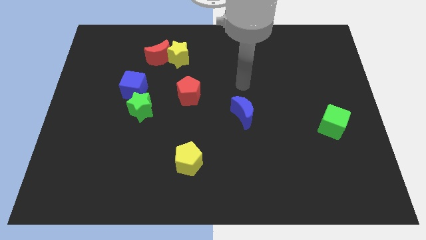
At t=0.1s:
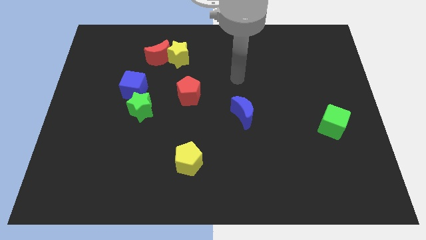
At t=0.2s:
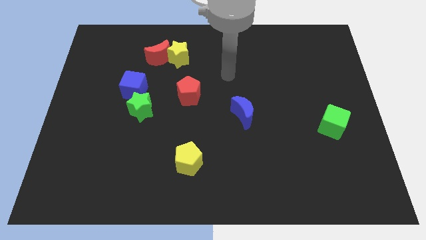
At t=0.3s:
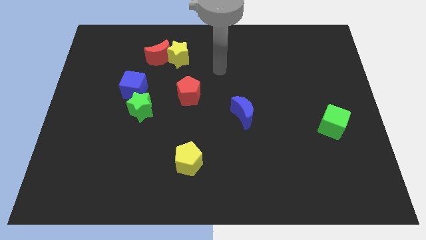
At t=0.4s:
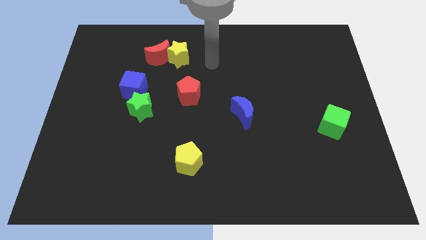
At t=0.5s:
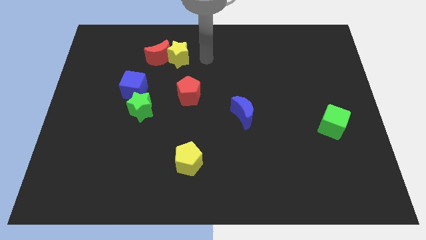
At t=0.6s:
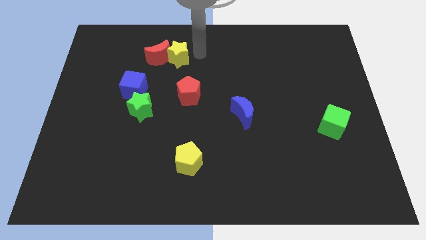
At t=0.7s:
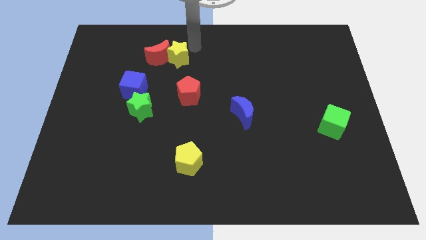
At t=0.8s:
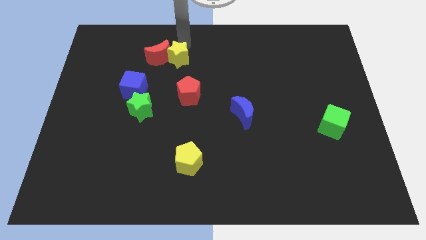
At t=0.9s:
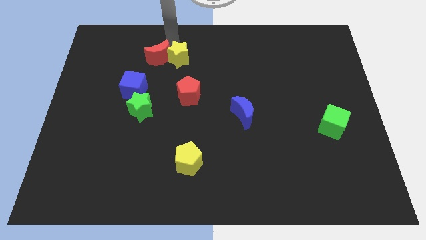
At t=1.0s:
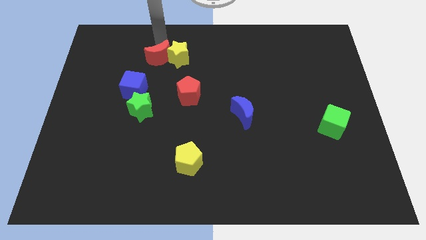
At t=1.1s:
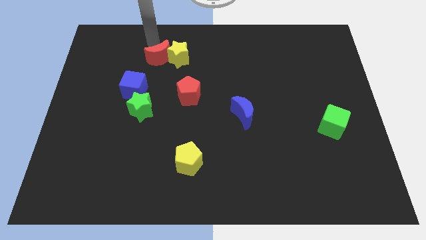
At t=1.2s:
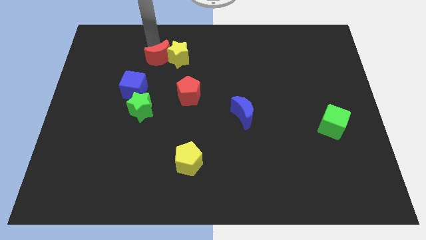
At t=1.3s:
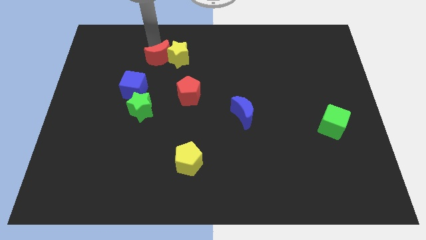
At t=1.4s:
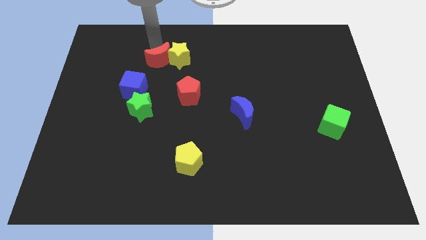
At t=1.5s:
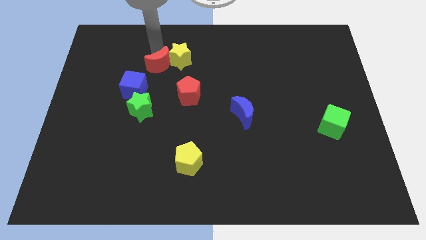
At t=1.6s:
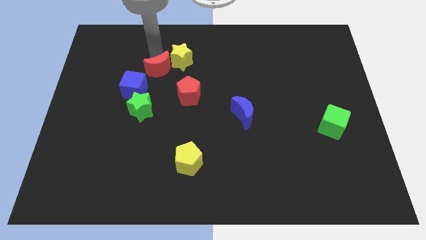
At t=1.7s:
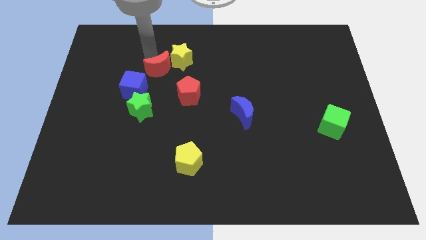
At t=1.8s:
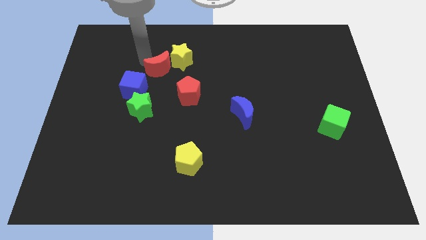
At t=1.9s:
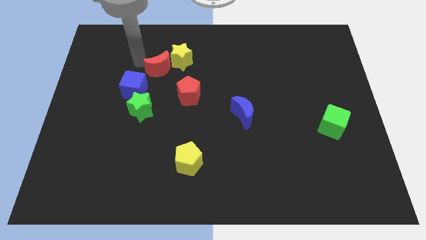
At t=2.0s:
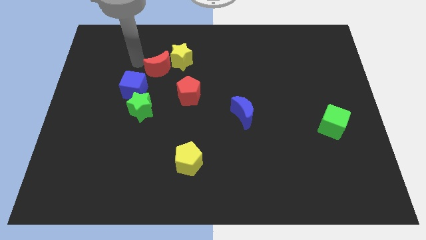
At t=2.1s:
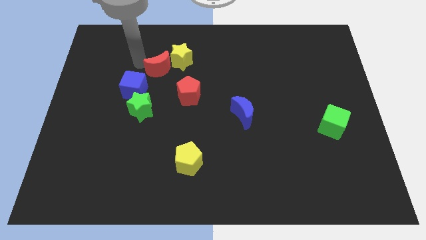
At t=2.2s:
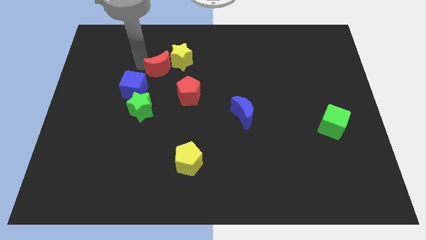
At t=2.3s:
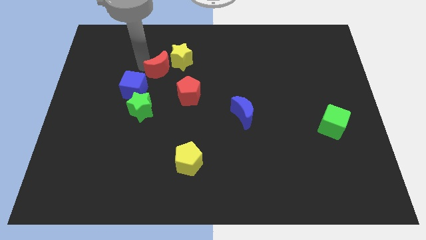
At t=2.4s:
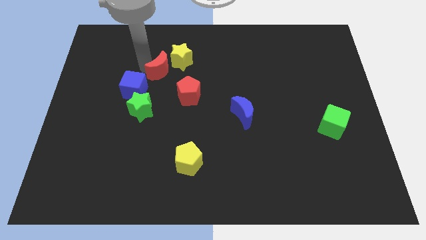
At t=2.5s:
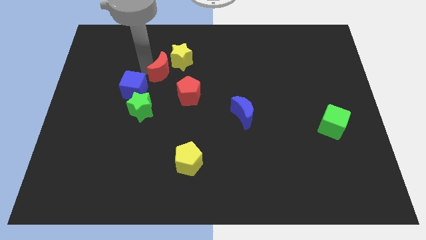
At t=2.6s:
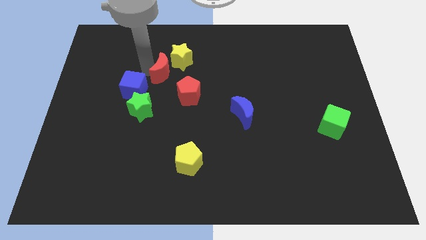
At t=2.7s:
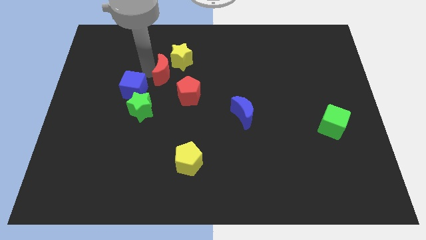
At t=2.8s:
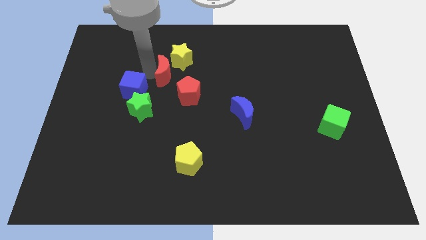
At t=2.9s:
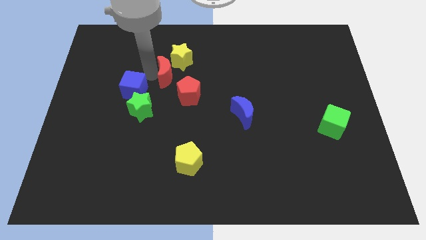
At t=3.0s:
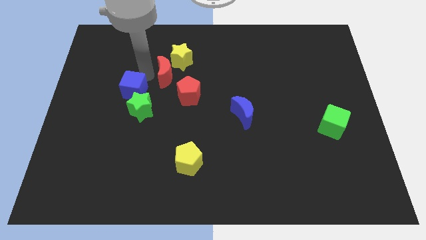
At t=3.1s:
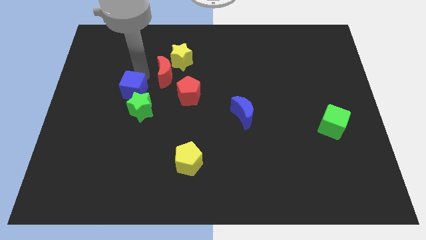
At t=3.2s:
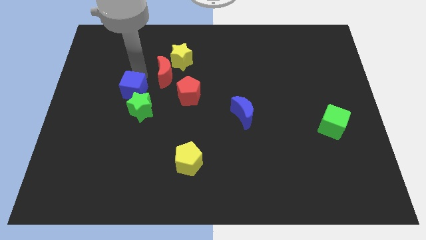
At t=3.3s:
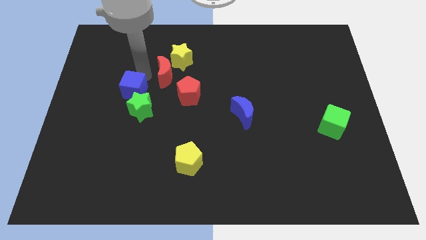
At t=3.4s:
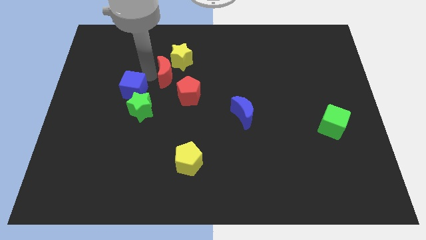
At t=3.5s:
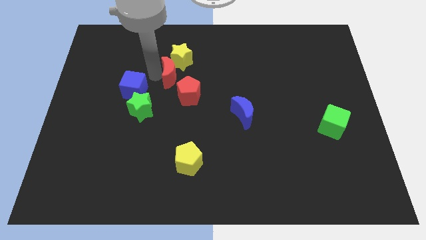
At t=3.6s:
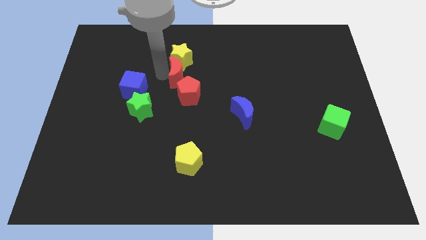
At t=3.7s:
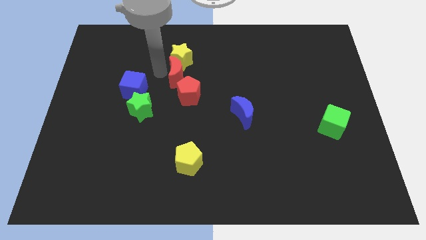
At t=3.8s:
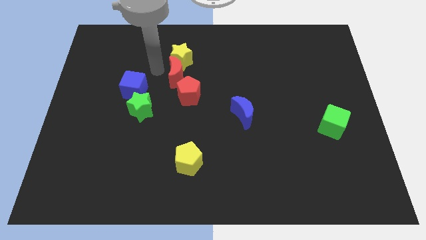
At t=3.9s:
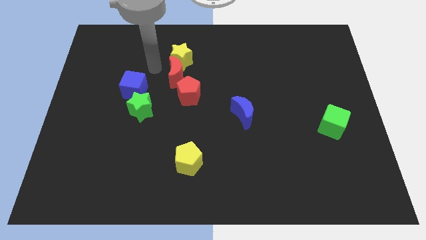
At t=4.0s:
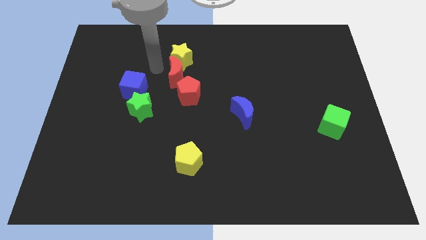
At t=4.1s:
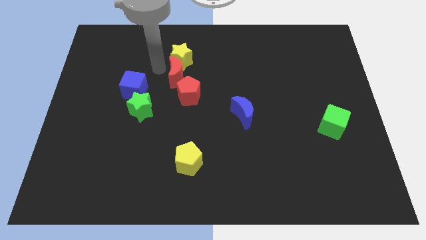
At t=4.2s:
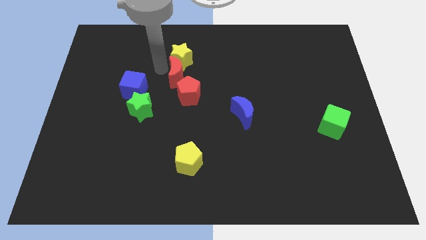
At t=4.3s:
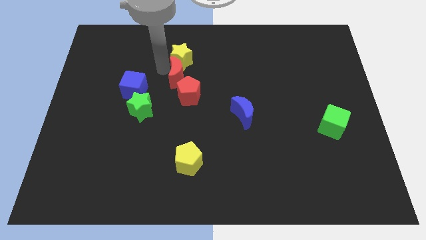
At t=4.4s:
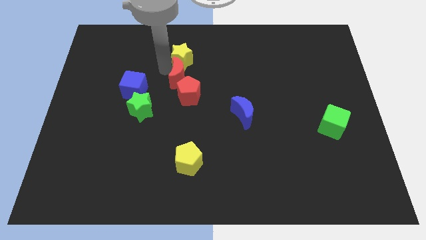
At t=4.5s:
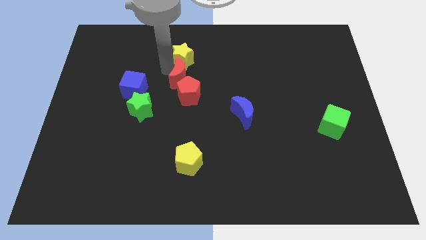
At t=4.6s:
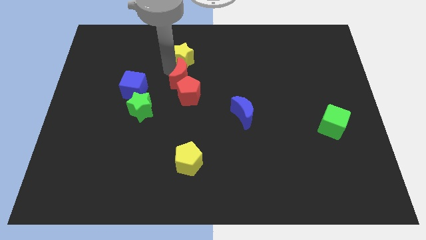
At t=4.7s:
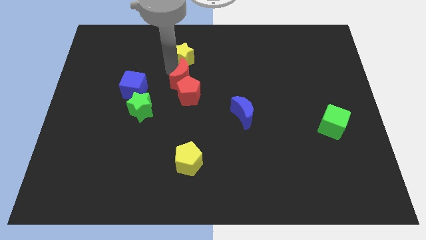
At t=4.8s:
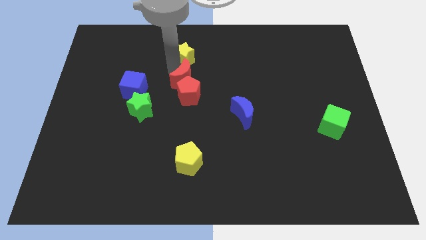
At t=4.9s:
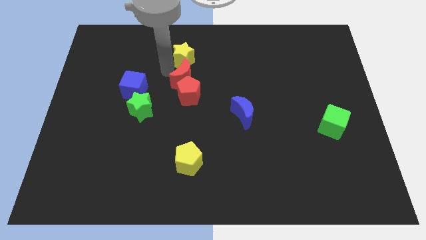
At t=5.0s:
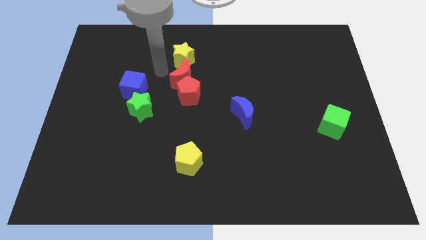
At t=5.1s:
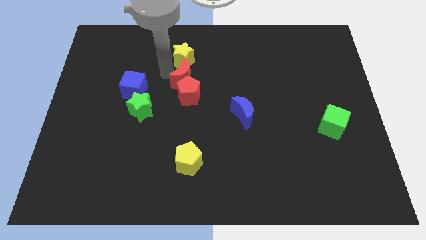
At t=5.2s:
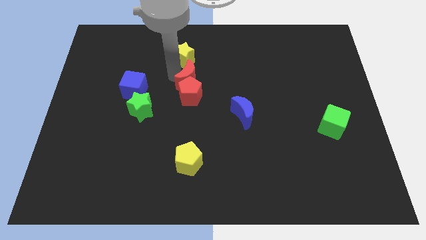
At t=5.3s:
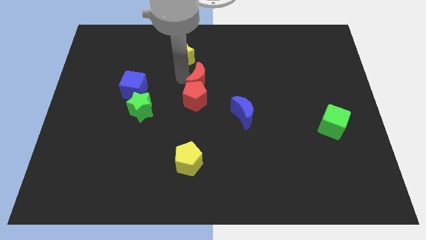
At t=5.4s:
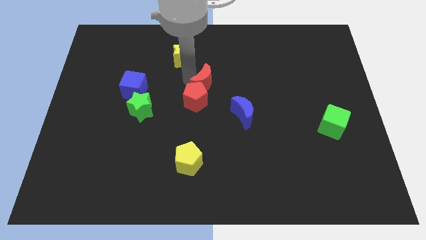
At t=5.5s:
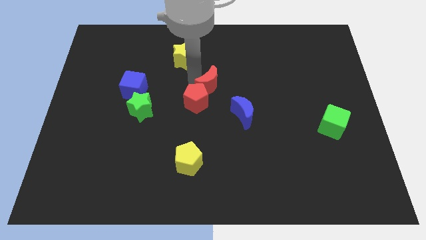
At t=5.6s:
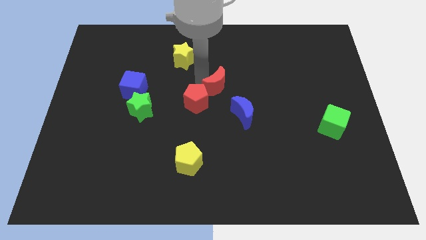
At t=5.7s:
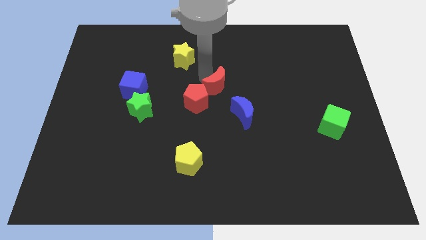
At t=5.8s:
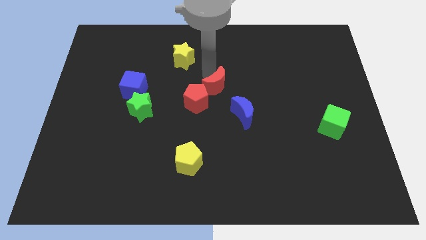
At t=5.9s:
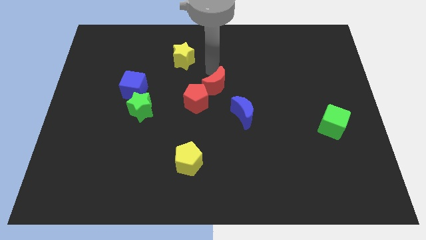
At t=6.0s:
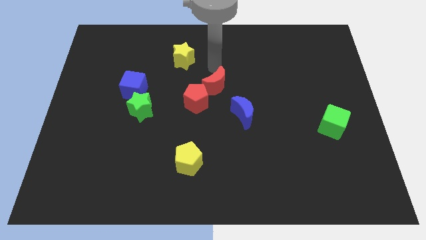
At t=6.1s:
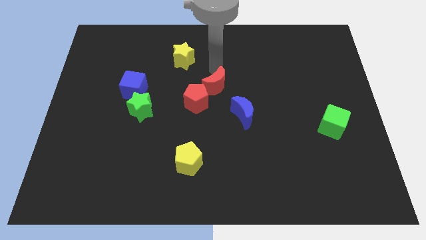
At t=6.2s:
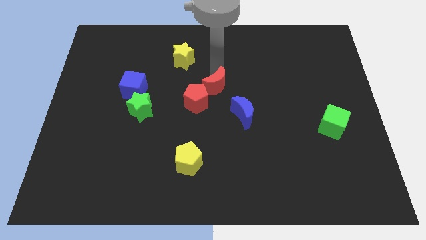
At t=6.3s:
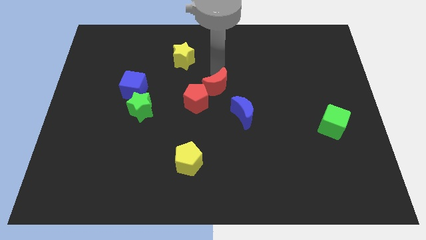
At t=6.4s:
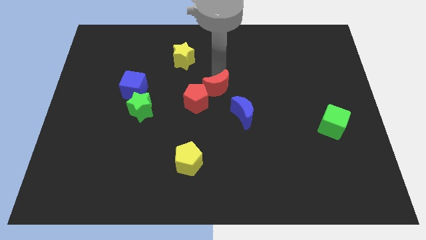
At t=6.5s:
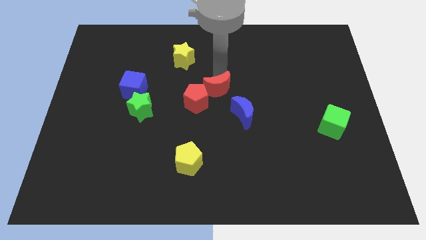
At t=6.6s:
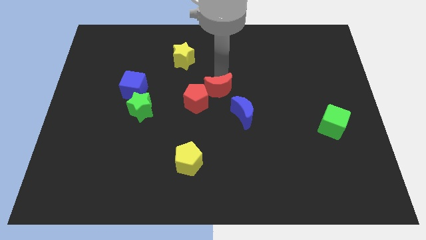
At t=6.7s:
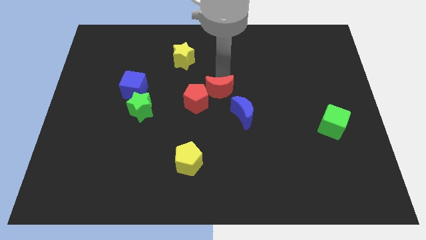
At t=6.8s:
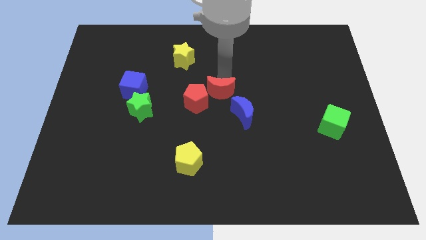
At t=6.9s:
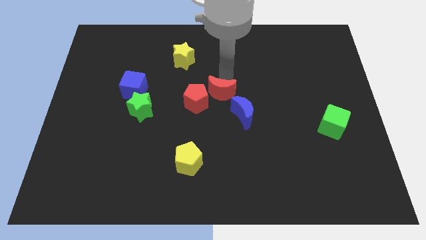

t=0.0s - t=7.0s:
slide the red moon downwards and to the right

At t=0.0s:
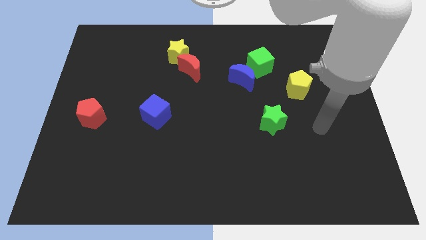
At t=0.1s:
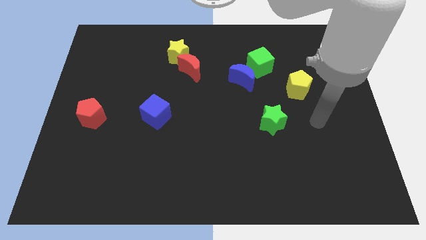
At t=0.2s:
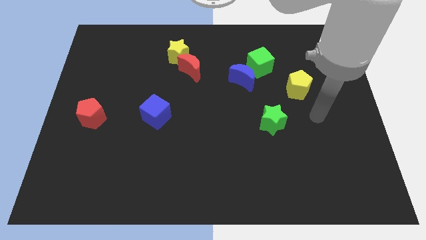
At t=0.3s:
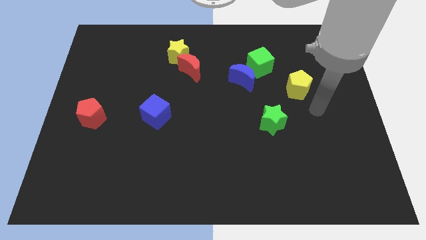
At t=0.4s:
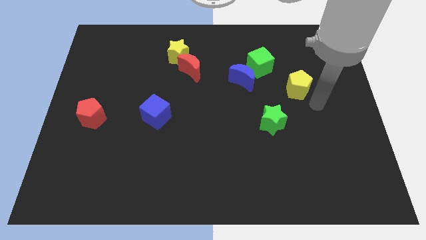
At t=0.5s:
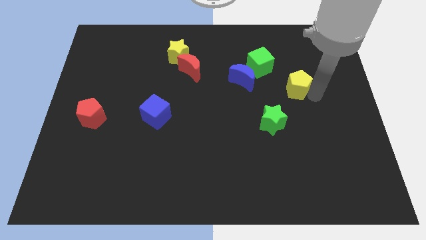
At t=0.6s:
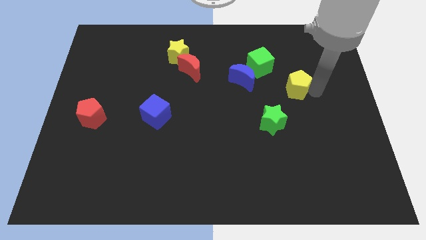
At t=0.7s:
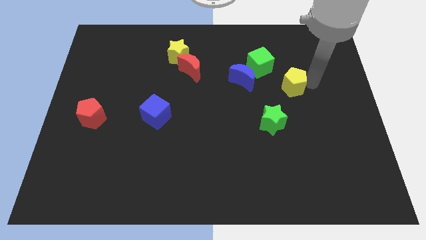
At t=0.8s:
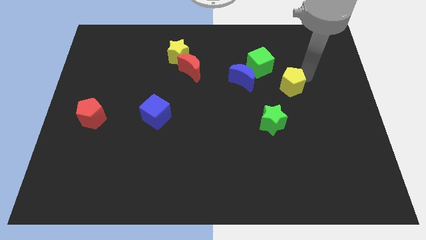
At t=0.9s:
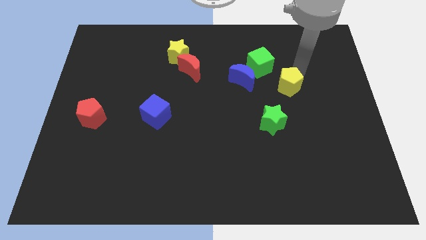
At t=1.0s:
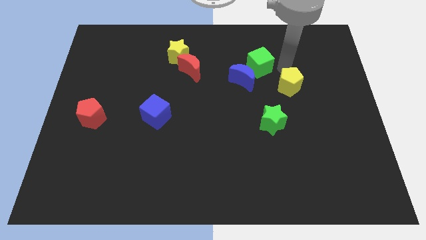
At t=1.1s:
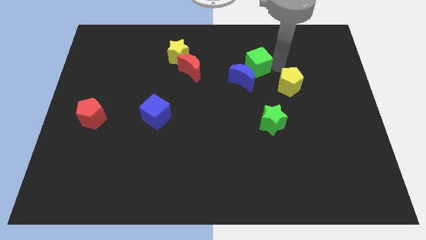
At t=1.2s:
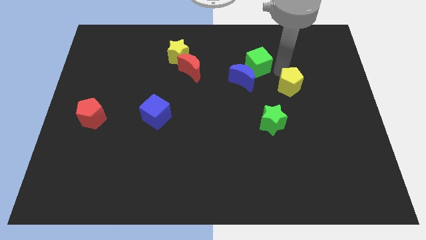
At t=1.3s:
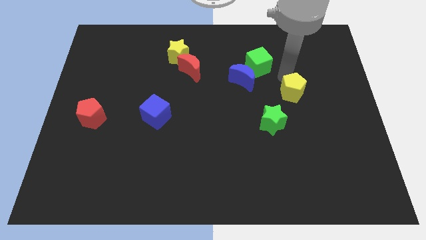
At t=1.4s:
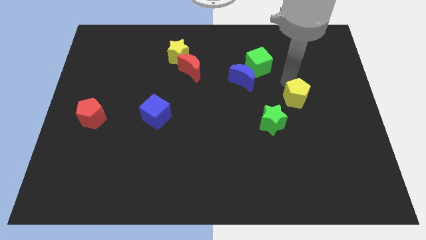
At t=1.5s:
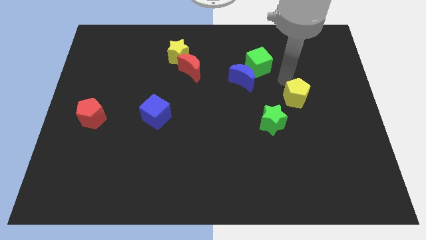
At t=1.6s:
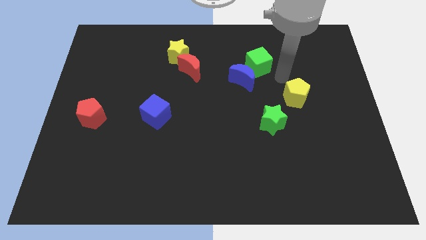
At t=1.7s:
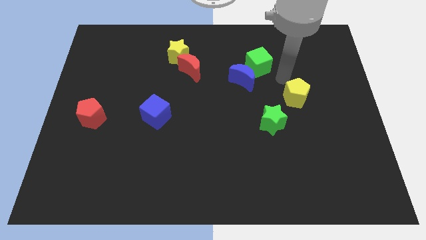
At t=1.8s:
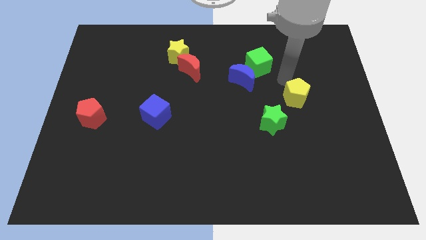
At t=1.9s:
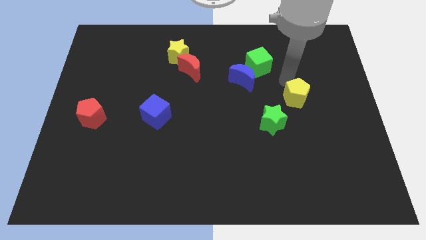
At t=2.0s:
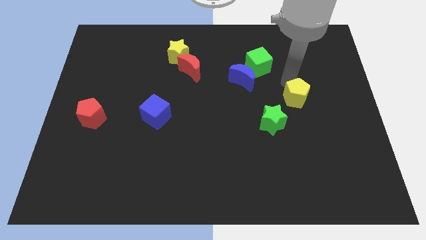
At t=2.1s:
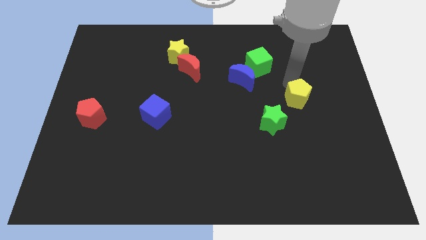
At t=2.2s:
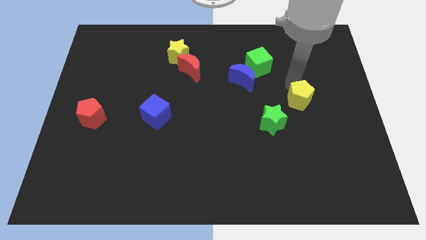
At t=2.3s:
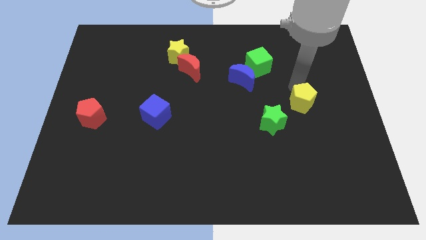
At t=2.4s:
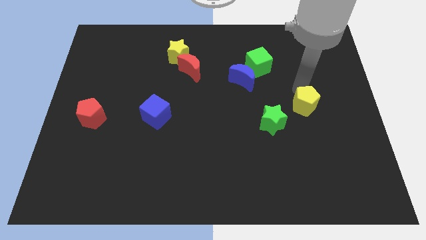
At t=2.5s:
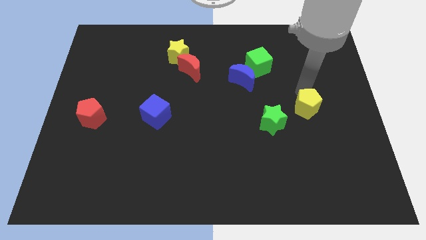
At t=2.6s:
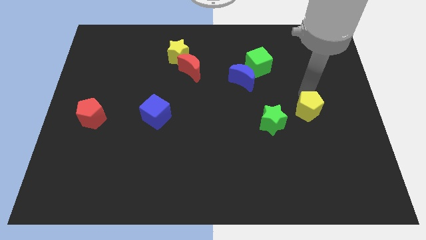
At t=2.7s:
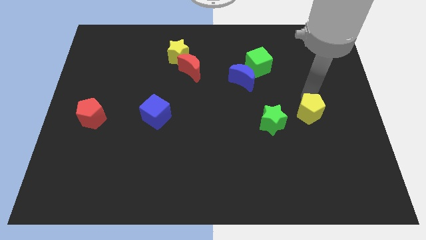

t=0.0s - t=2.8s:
slide the yellow pentagon a bit downwards
